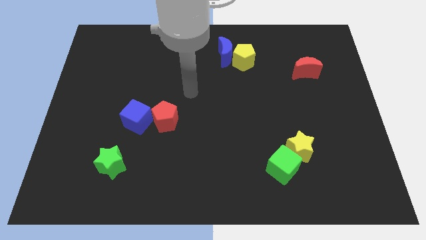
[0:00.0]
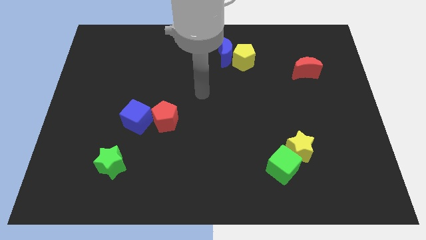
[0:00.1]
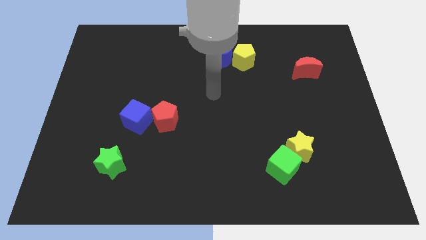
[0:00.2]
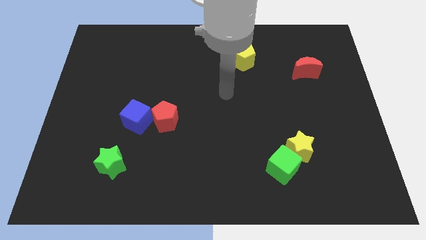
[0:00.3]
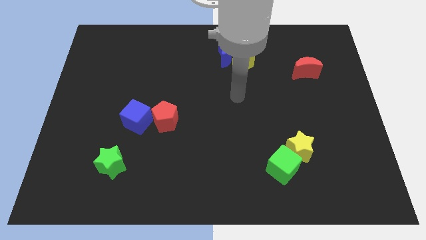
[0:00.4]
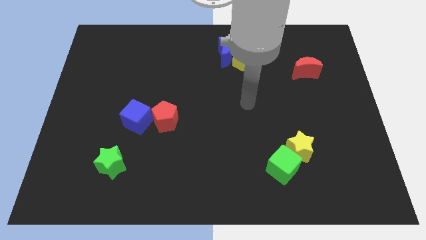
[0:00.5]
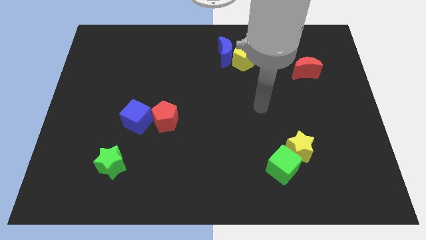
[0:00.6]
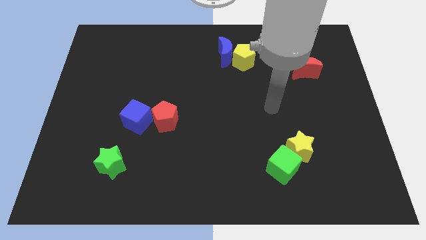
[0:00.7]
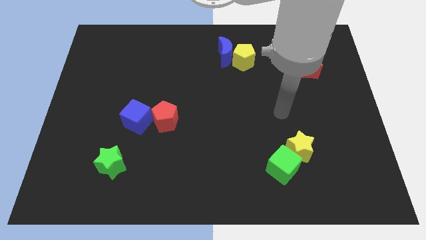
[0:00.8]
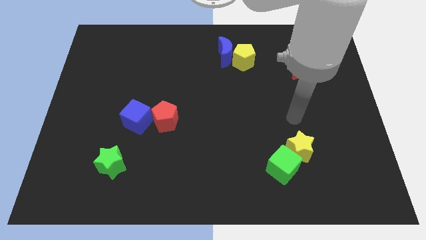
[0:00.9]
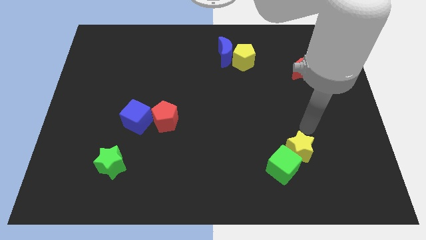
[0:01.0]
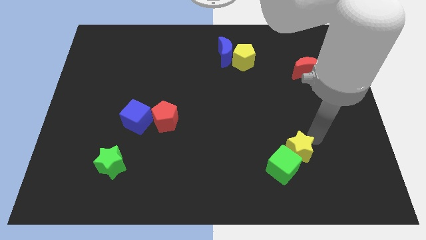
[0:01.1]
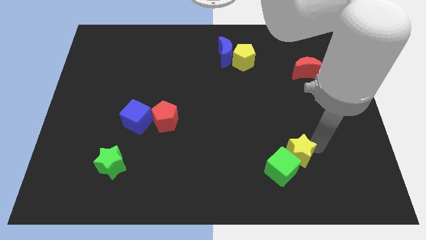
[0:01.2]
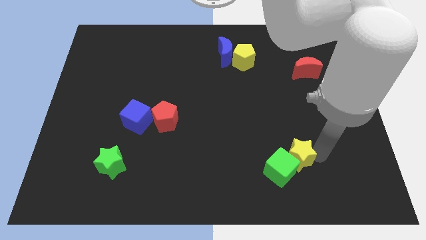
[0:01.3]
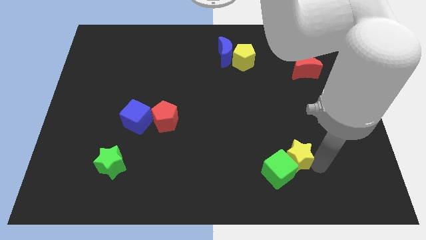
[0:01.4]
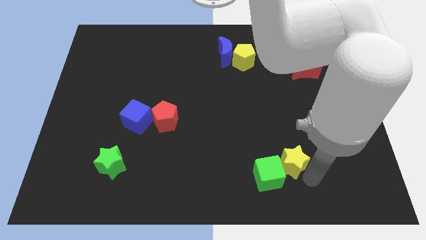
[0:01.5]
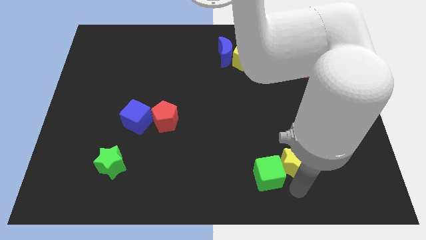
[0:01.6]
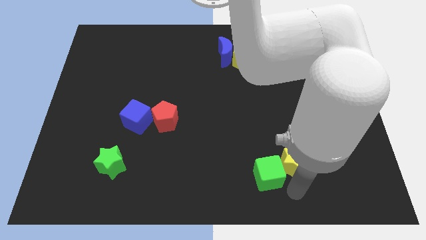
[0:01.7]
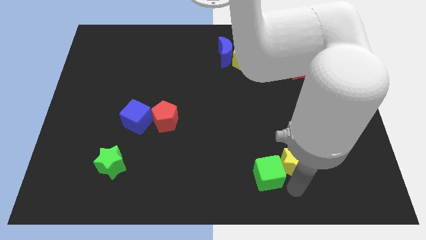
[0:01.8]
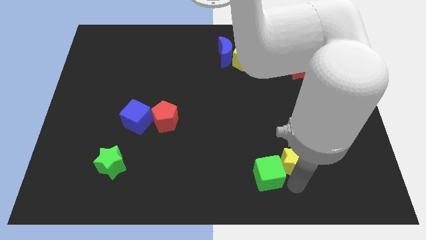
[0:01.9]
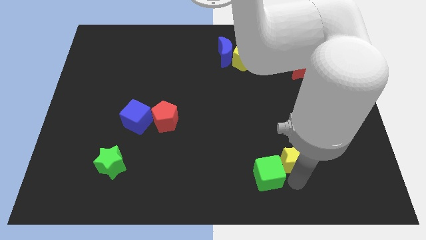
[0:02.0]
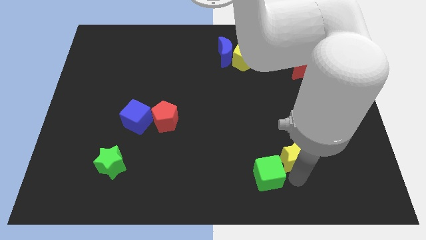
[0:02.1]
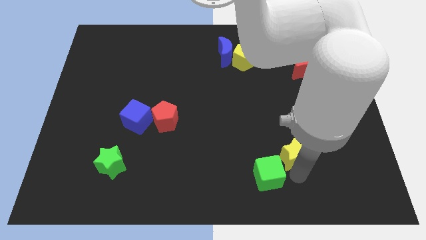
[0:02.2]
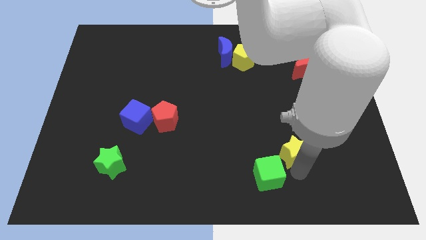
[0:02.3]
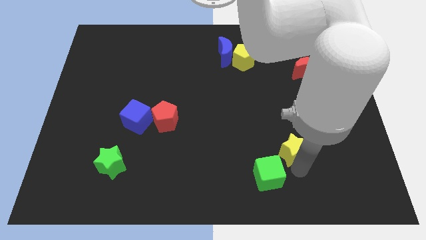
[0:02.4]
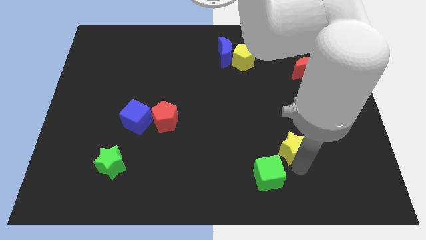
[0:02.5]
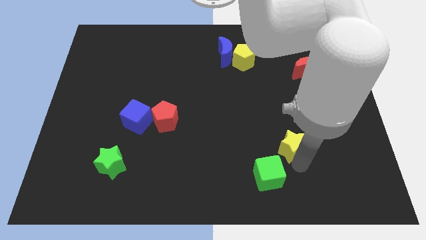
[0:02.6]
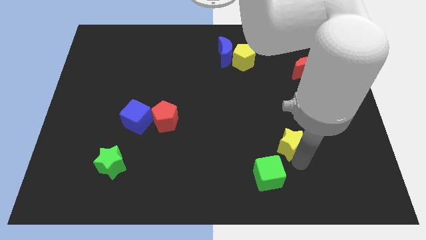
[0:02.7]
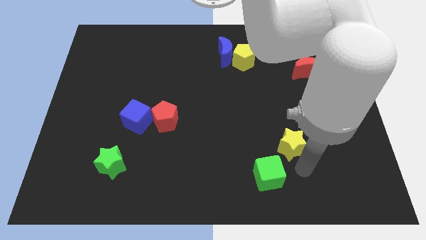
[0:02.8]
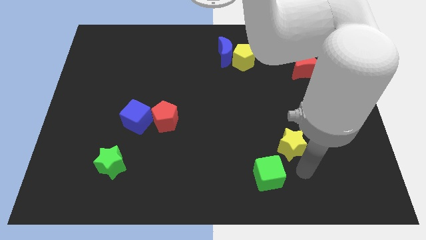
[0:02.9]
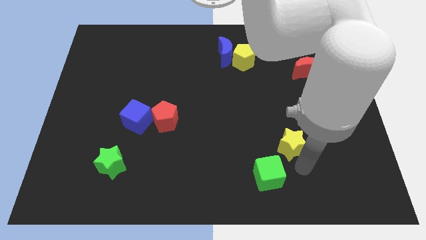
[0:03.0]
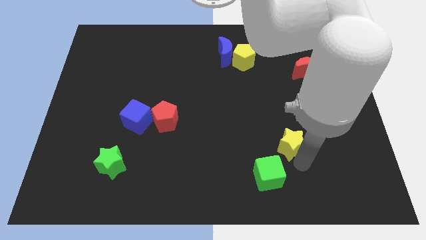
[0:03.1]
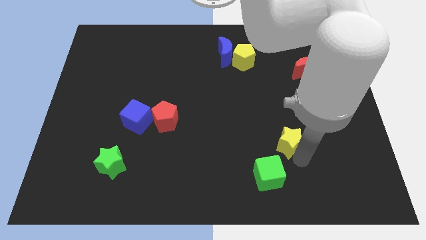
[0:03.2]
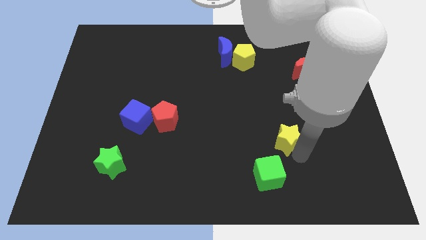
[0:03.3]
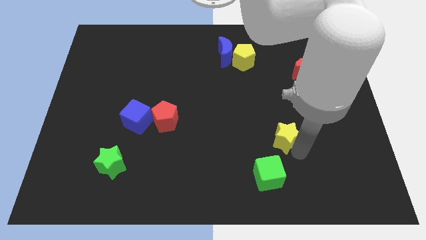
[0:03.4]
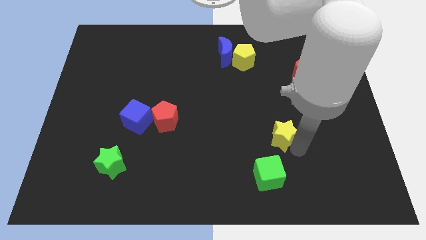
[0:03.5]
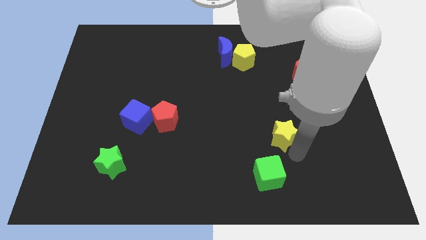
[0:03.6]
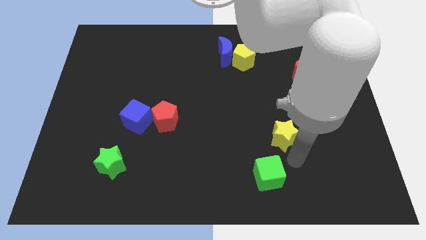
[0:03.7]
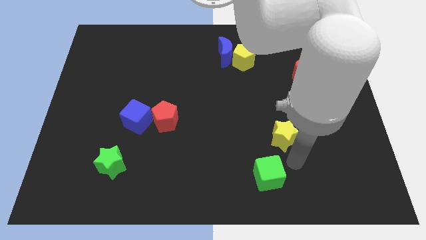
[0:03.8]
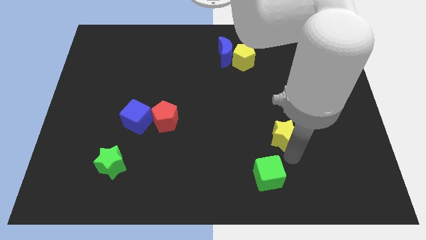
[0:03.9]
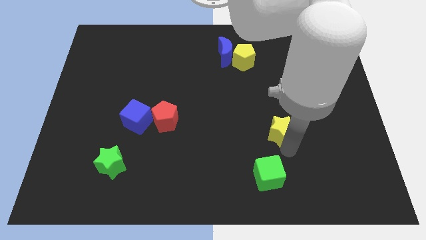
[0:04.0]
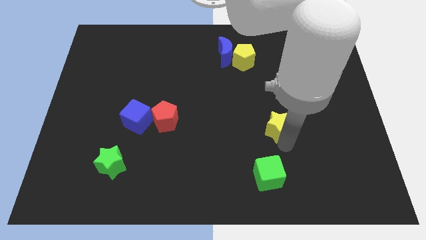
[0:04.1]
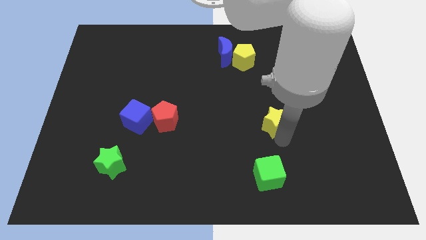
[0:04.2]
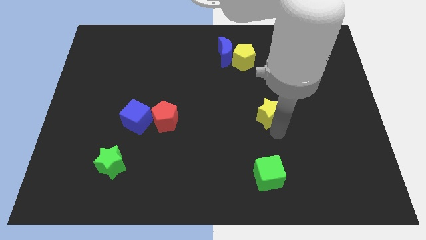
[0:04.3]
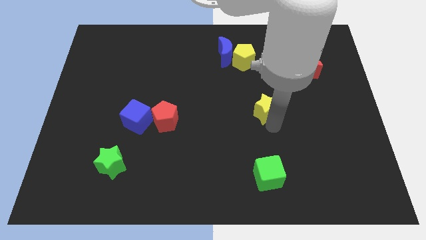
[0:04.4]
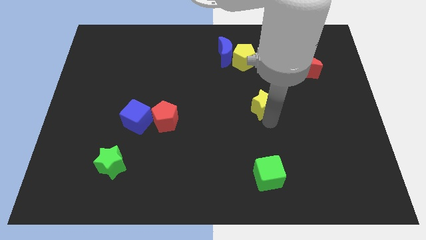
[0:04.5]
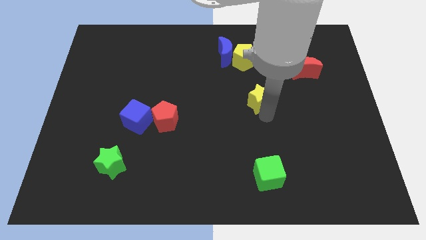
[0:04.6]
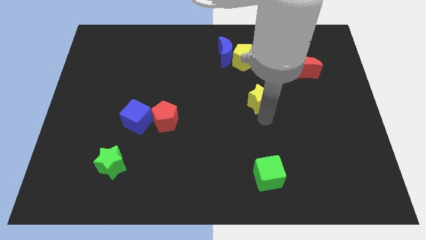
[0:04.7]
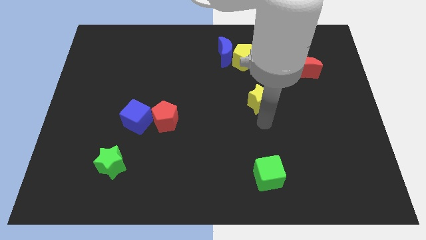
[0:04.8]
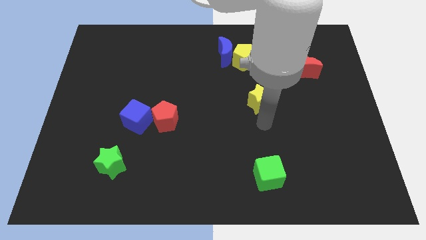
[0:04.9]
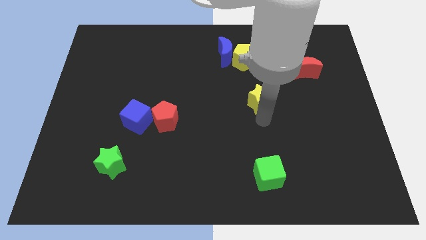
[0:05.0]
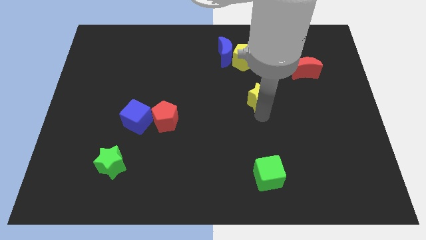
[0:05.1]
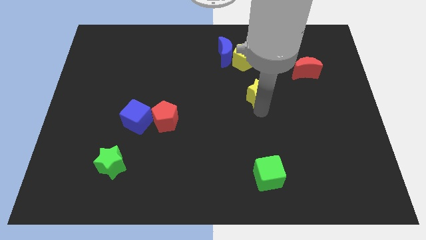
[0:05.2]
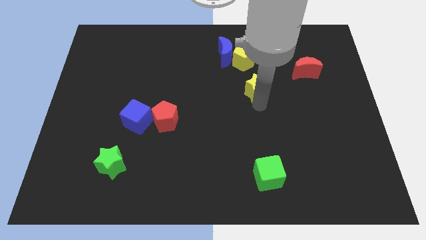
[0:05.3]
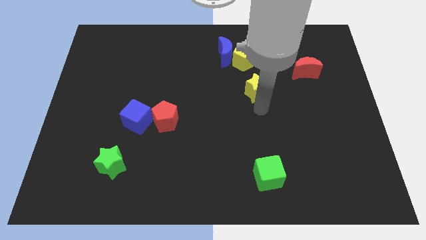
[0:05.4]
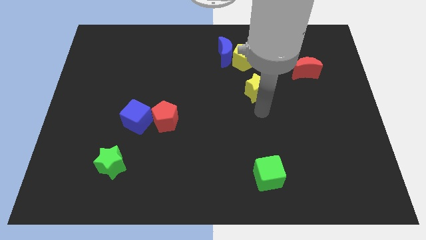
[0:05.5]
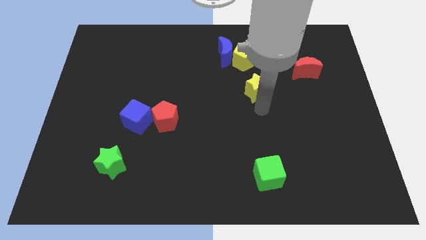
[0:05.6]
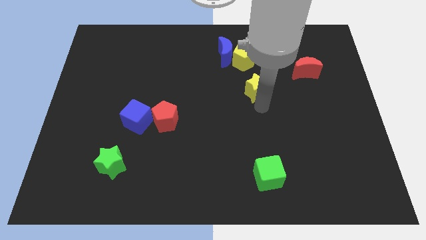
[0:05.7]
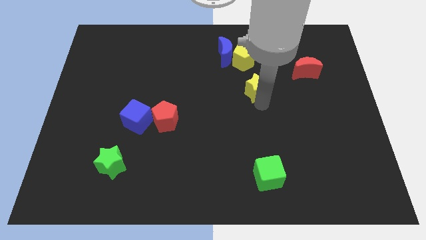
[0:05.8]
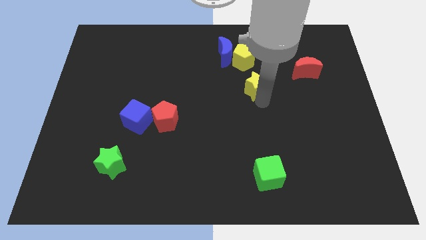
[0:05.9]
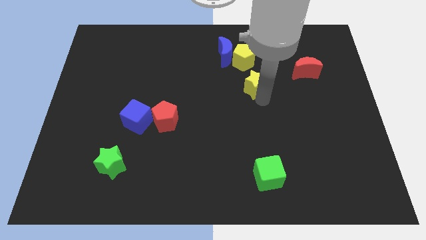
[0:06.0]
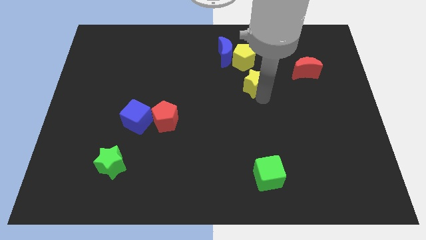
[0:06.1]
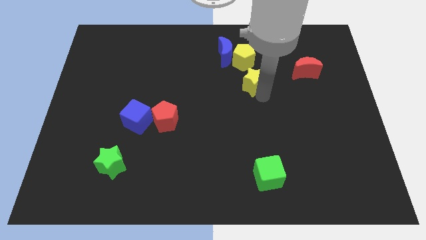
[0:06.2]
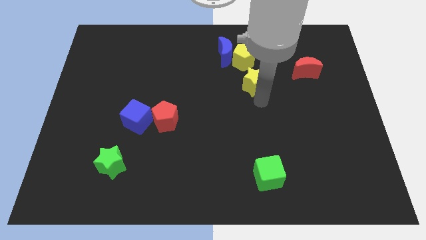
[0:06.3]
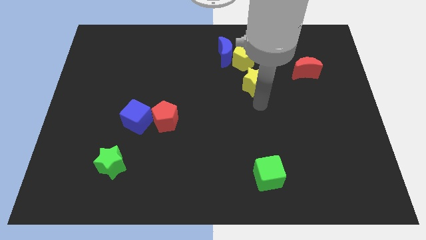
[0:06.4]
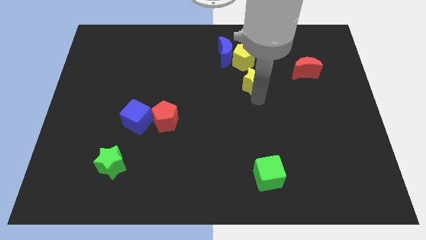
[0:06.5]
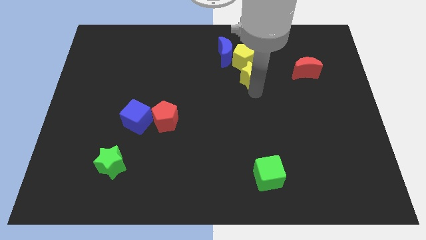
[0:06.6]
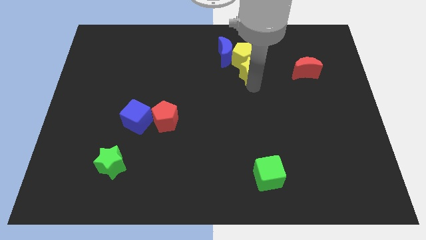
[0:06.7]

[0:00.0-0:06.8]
put the yellow star next to the yellow pentagon

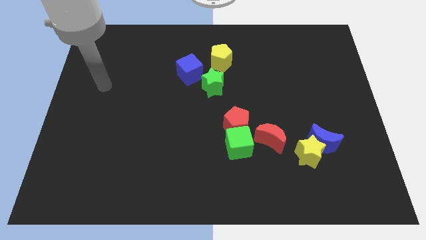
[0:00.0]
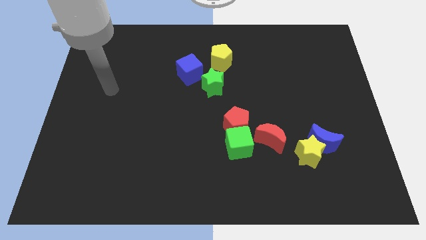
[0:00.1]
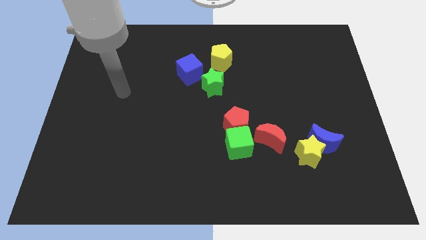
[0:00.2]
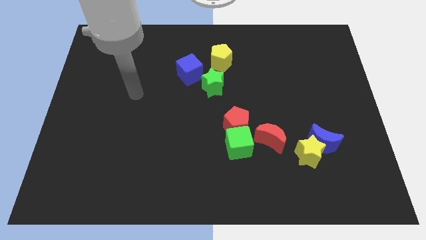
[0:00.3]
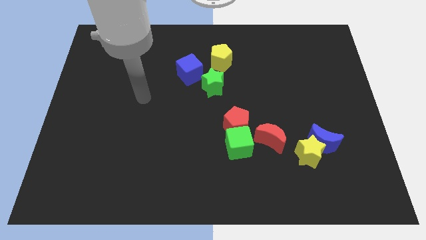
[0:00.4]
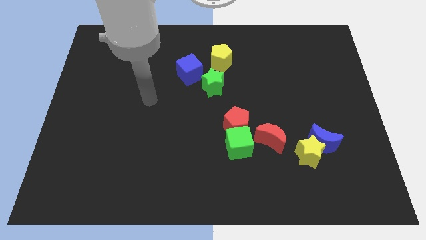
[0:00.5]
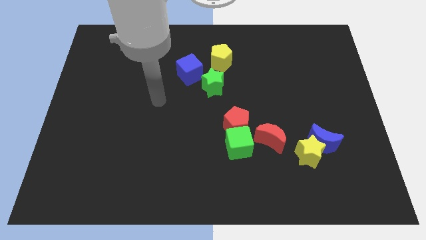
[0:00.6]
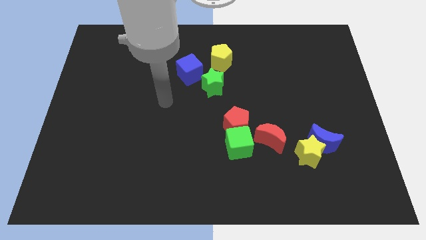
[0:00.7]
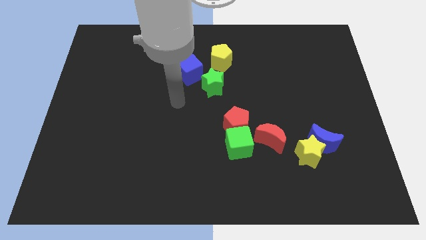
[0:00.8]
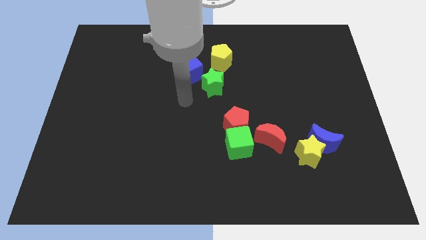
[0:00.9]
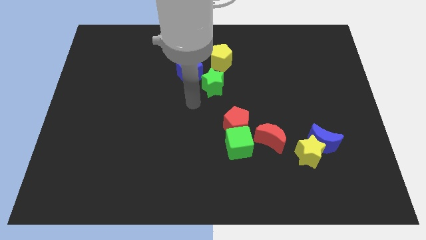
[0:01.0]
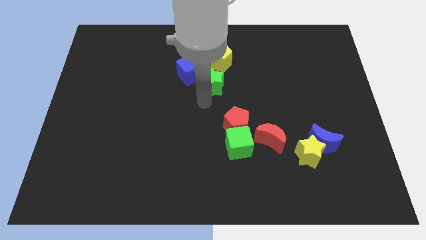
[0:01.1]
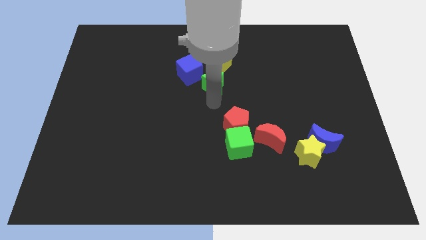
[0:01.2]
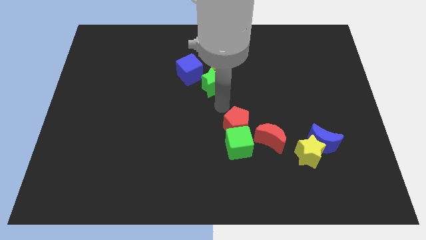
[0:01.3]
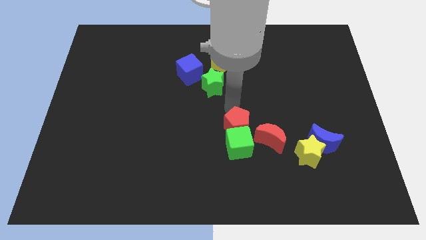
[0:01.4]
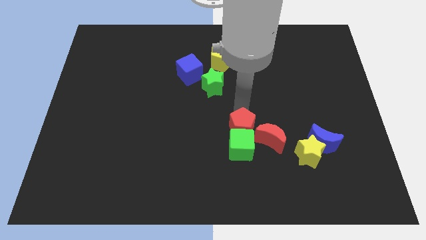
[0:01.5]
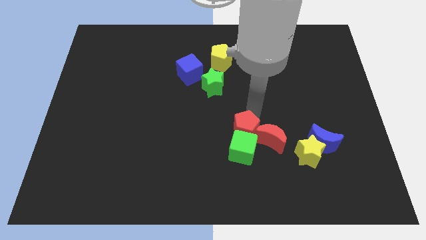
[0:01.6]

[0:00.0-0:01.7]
move the red moon to the red pentagon
